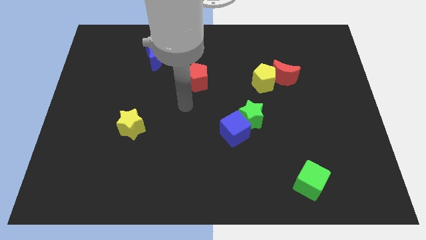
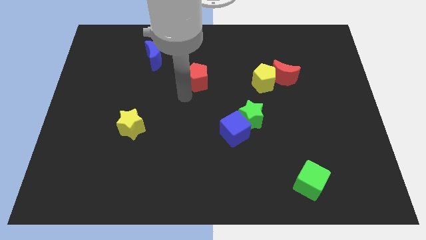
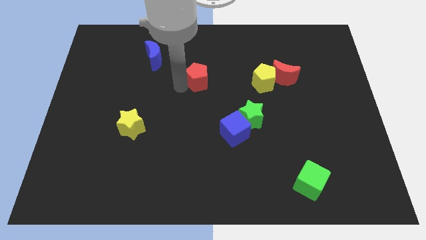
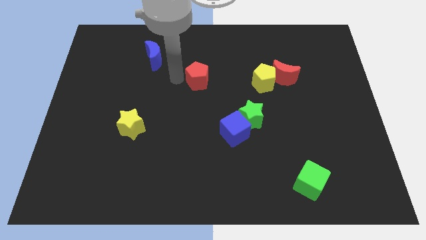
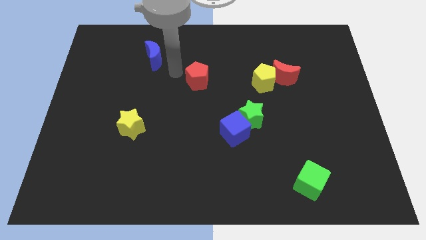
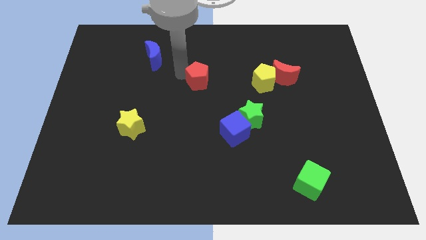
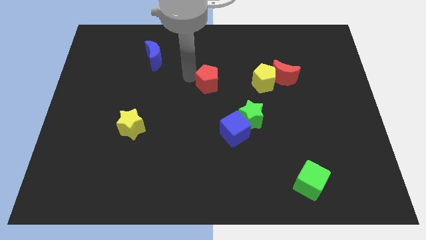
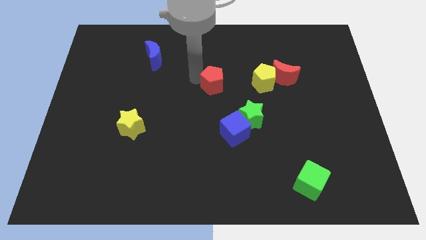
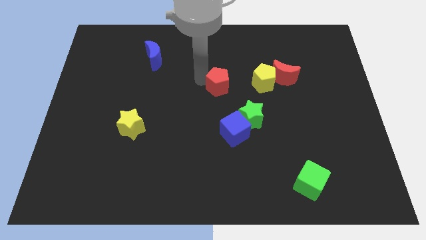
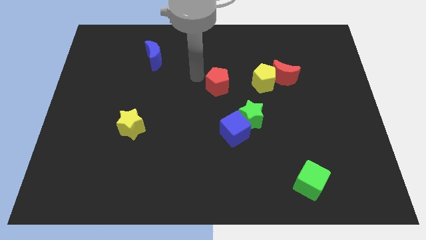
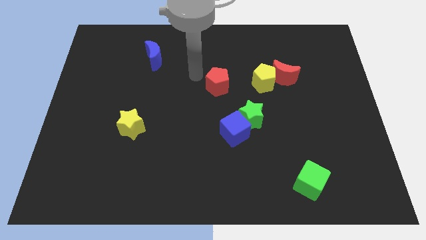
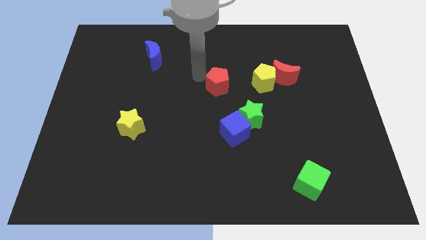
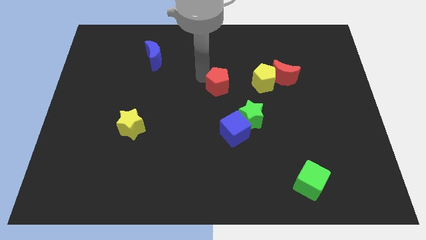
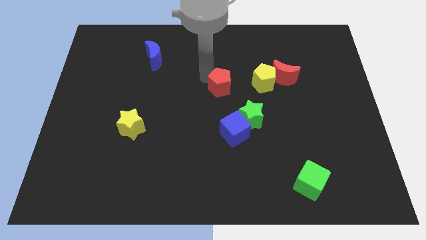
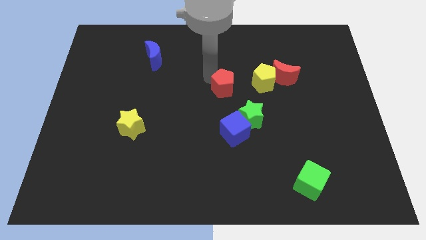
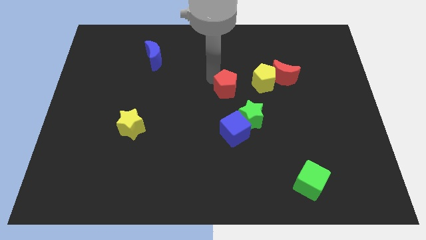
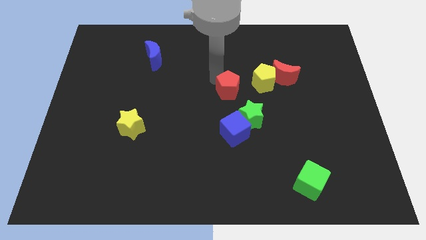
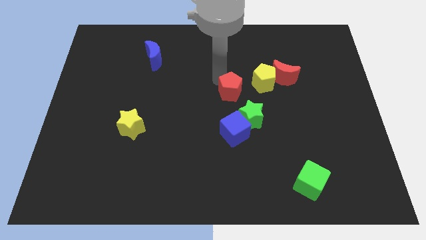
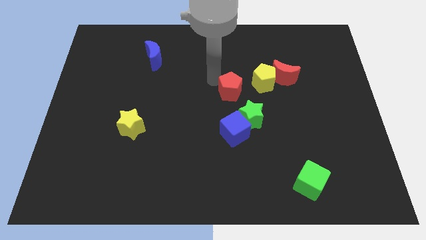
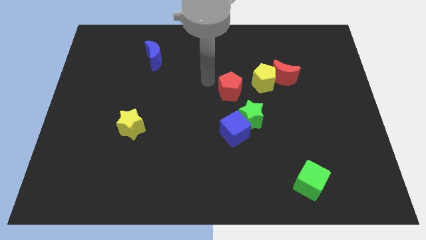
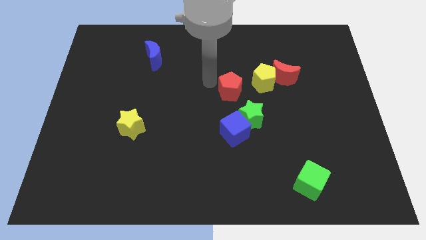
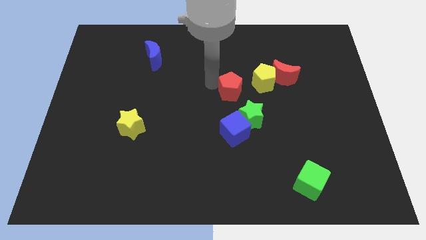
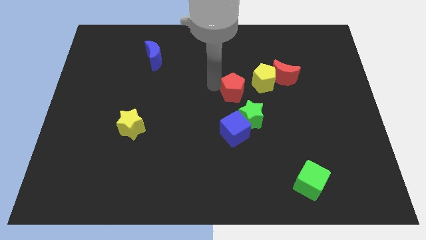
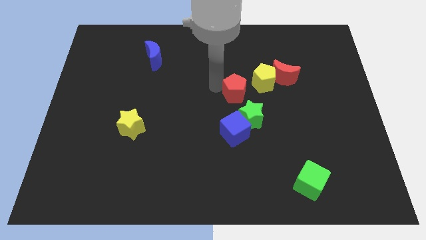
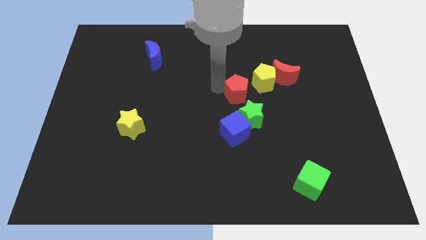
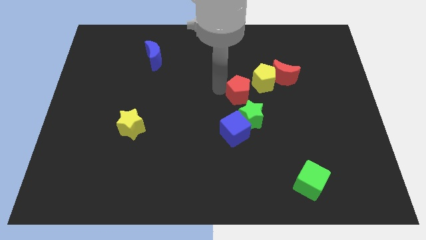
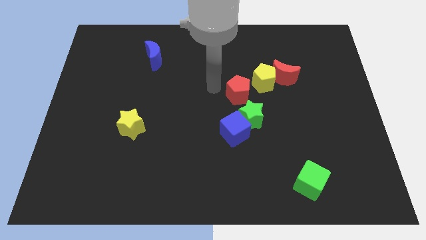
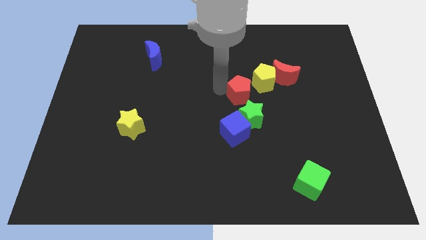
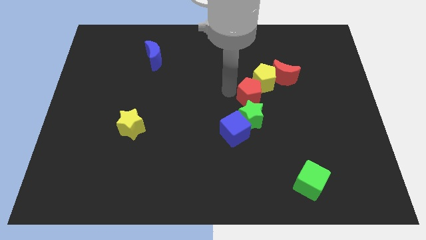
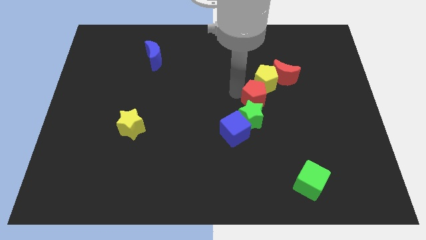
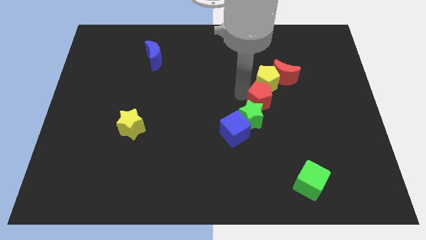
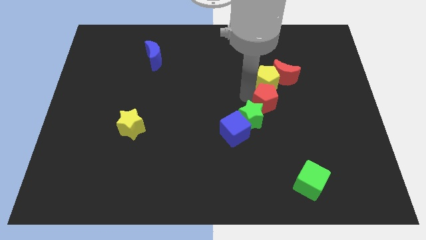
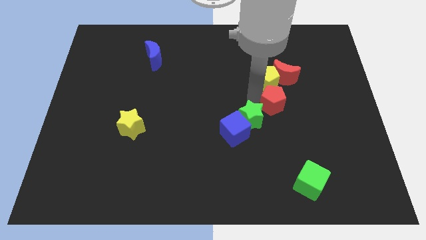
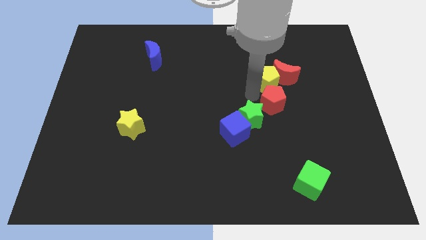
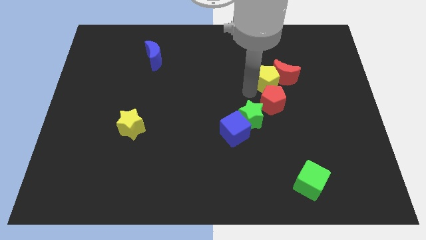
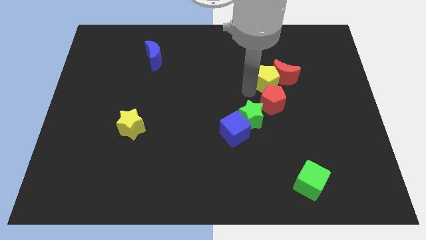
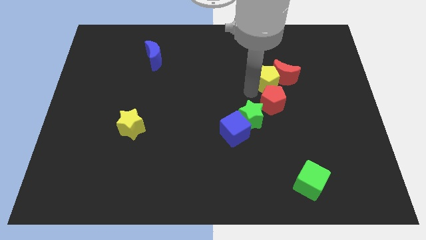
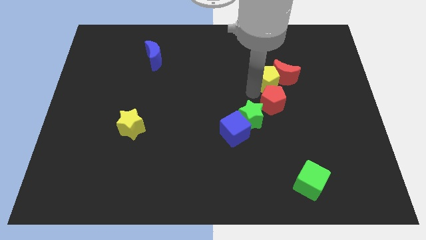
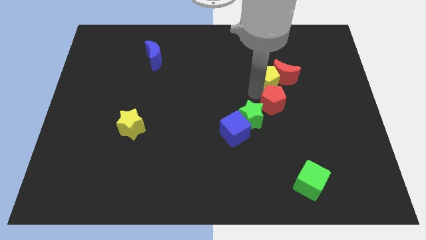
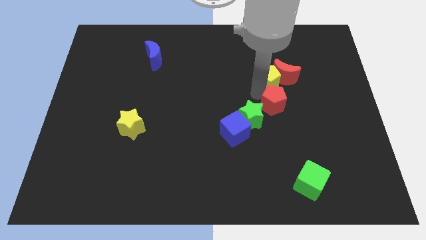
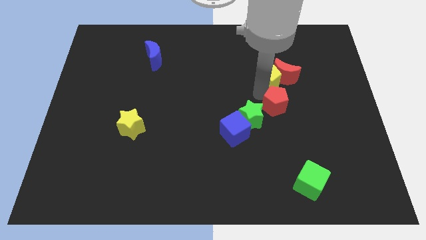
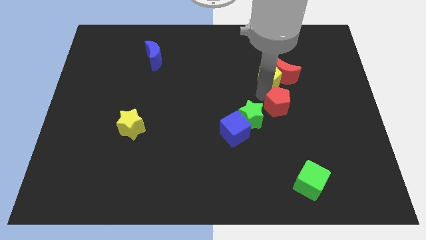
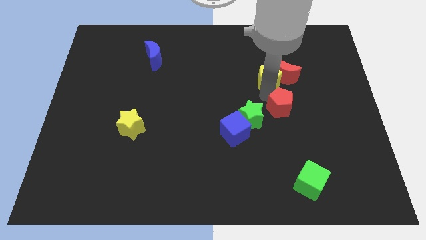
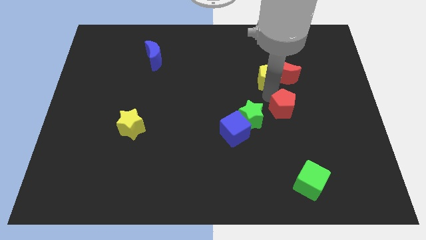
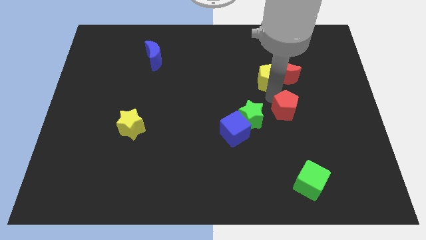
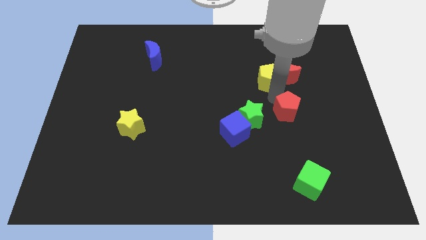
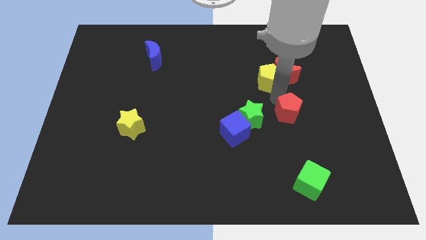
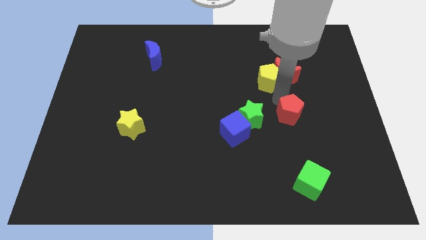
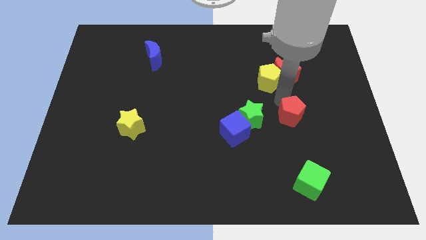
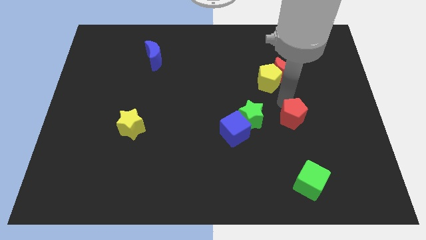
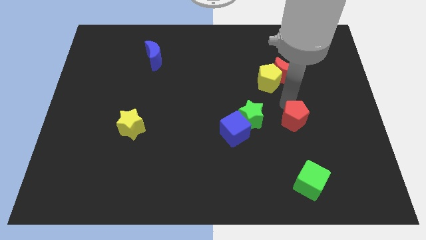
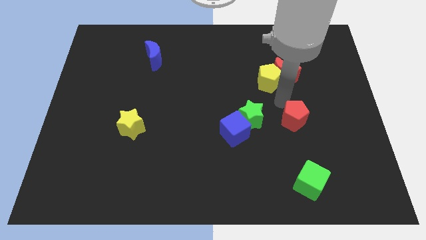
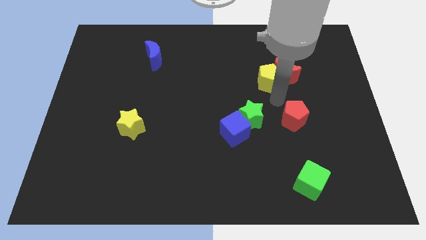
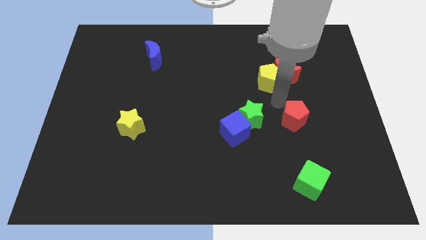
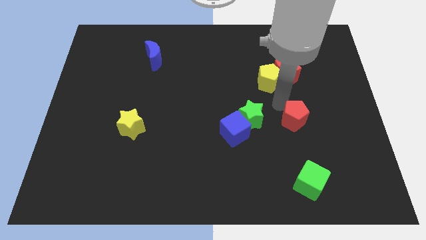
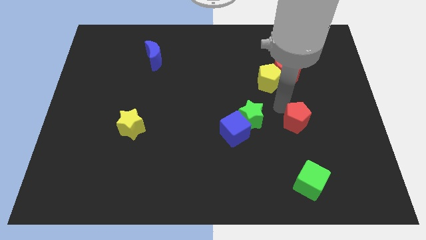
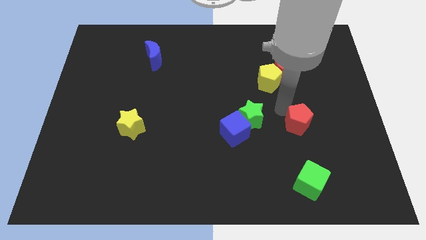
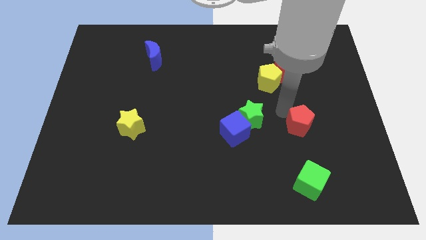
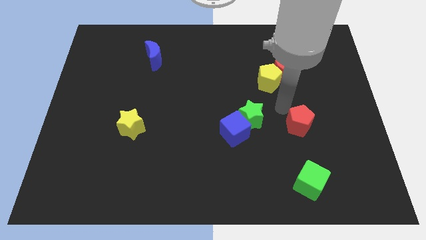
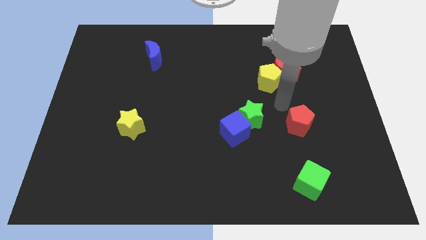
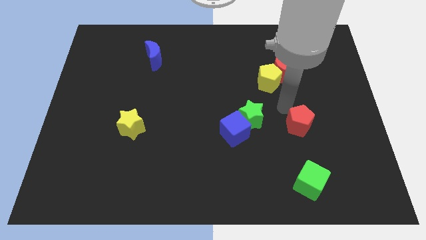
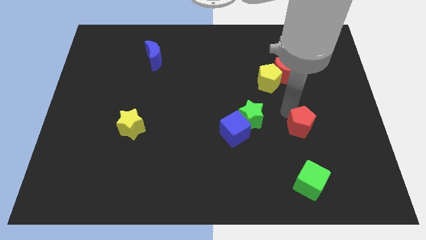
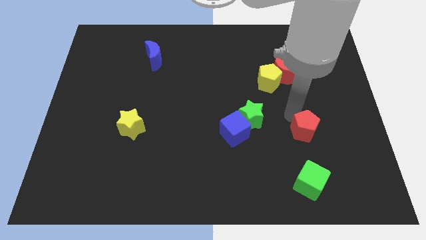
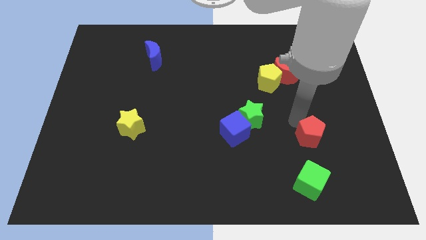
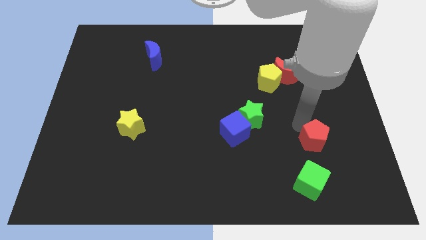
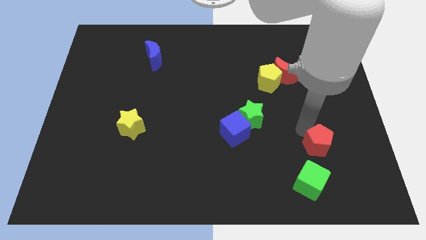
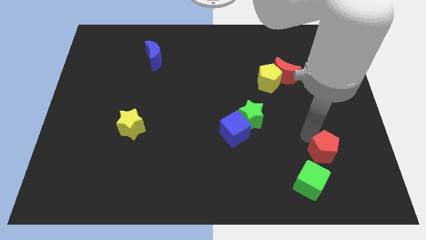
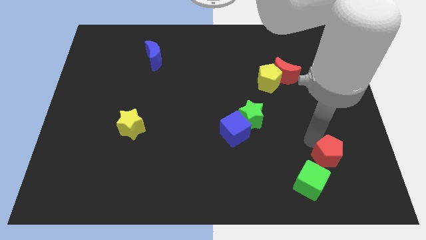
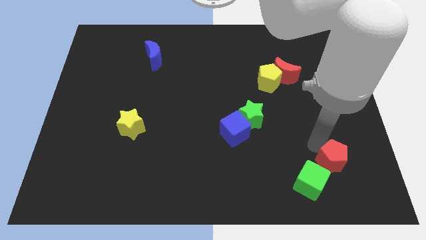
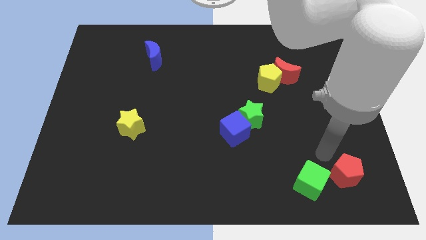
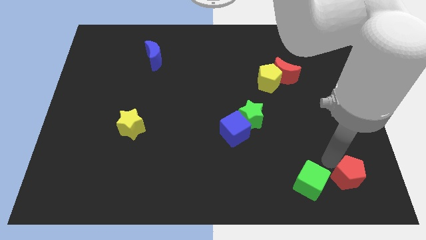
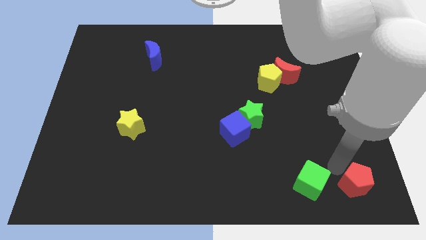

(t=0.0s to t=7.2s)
slide the red pentagon to the bottom right of the board
